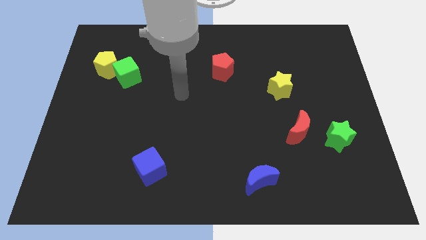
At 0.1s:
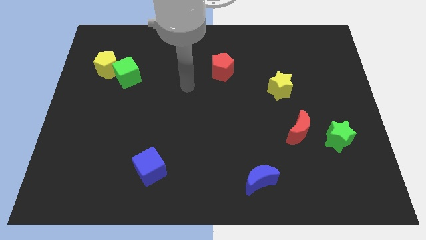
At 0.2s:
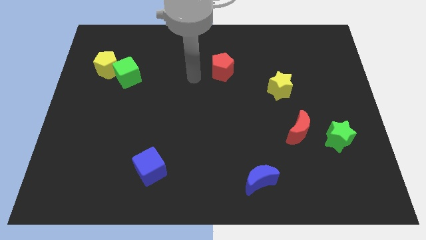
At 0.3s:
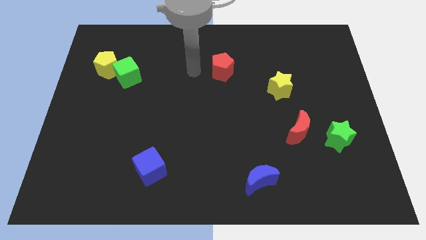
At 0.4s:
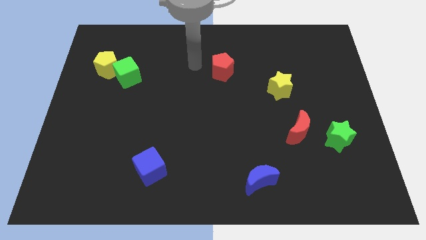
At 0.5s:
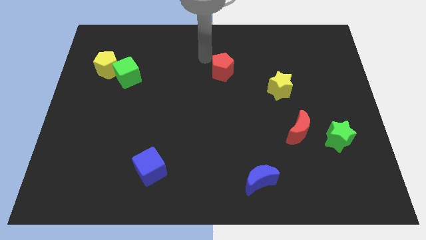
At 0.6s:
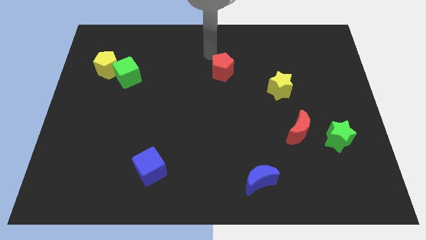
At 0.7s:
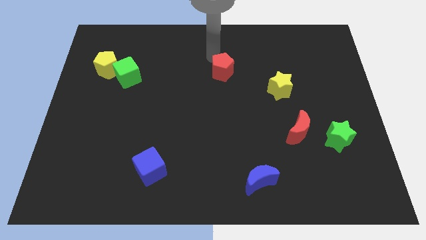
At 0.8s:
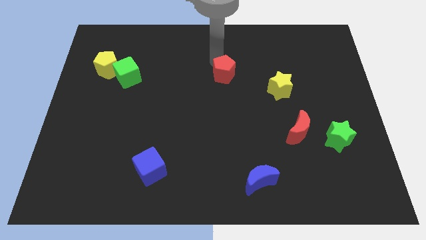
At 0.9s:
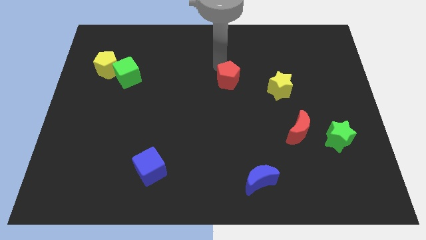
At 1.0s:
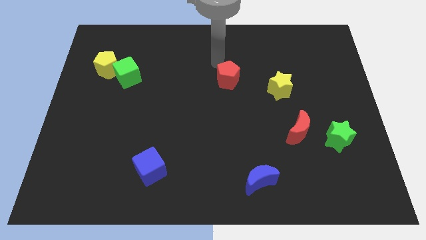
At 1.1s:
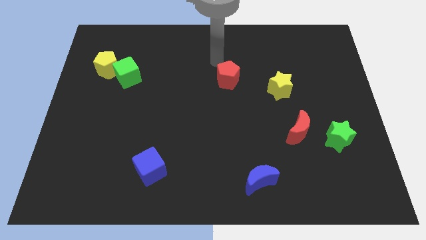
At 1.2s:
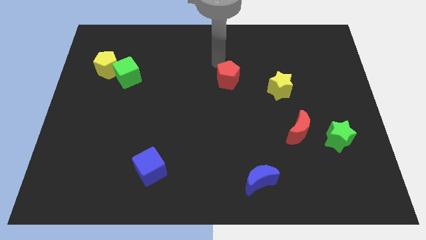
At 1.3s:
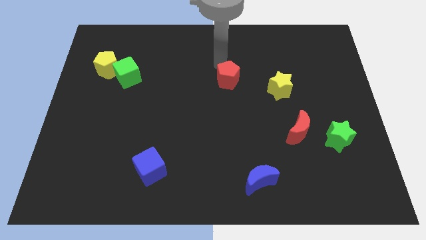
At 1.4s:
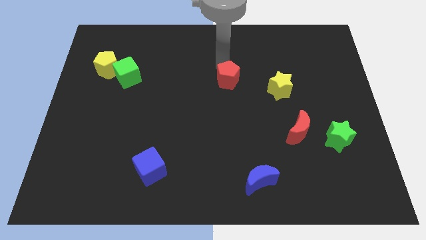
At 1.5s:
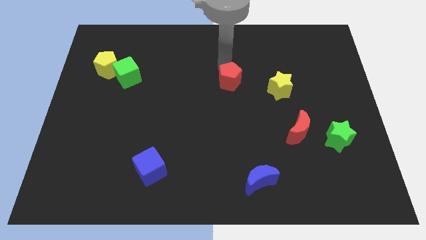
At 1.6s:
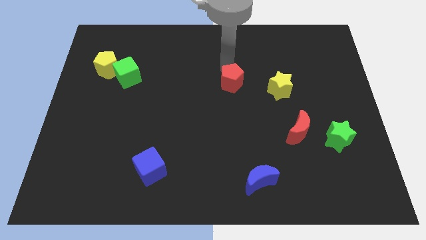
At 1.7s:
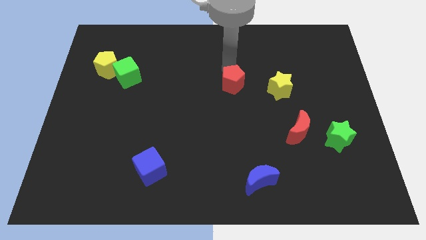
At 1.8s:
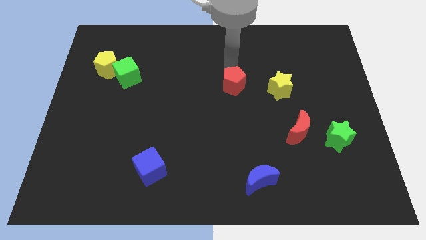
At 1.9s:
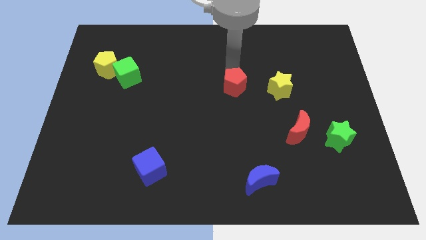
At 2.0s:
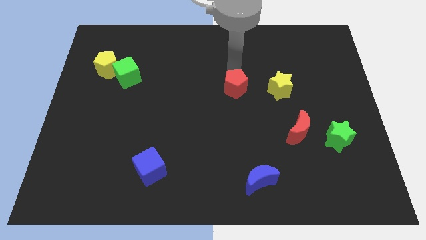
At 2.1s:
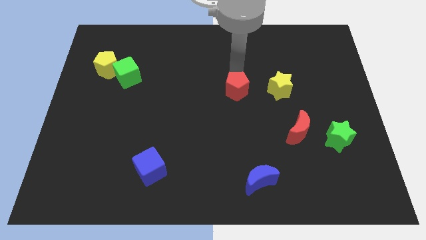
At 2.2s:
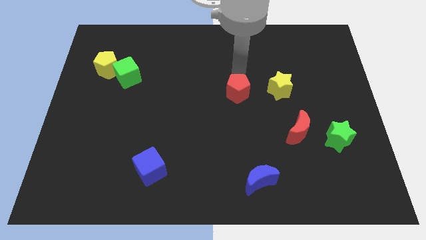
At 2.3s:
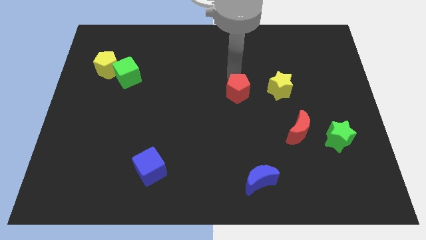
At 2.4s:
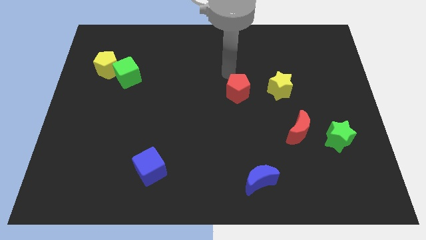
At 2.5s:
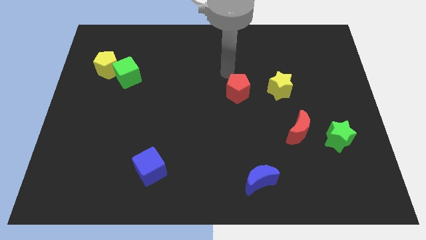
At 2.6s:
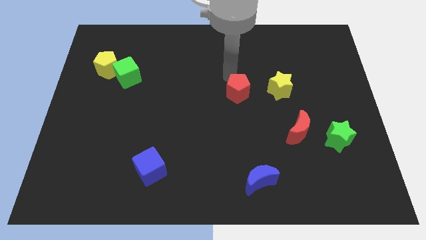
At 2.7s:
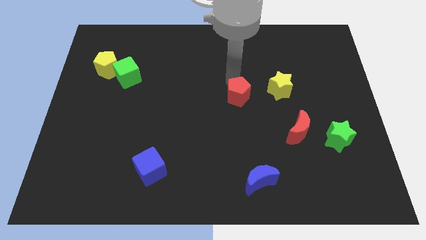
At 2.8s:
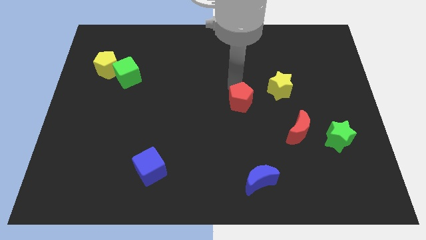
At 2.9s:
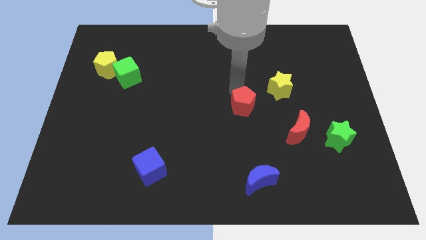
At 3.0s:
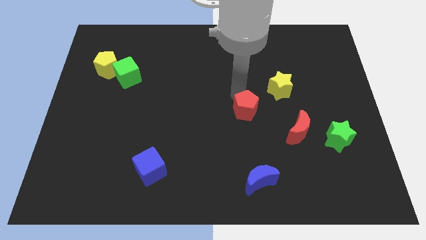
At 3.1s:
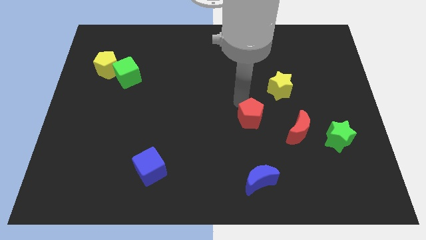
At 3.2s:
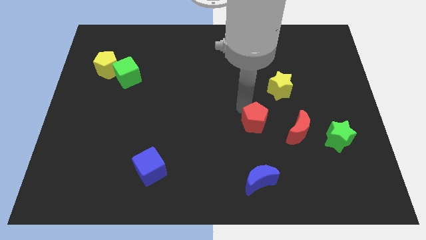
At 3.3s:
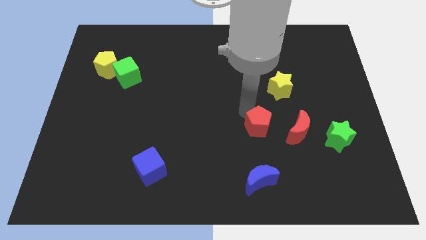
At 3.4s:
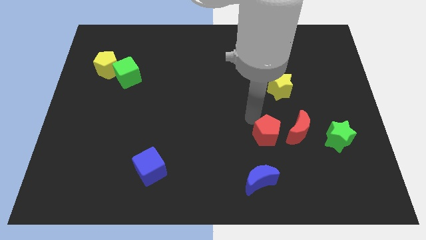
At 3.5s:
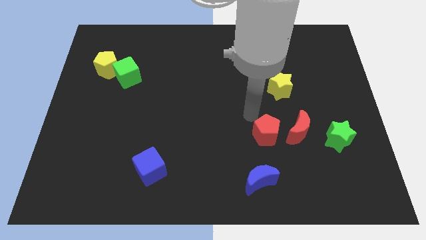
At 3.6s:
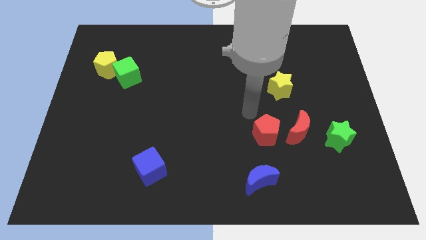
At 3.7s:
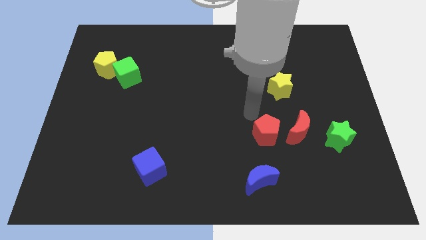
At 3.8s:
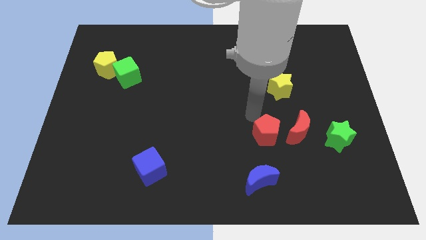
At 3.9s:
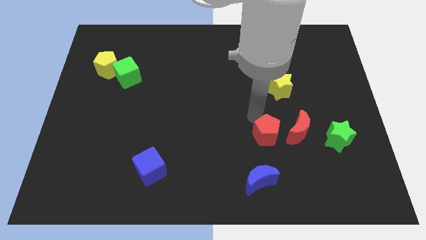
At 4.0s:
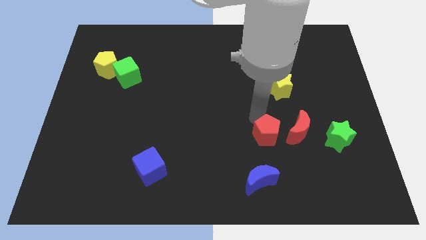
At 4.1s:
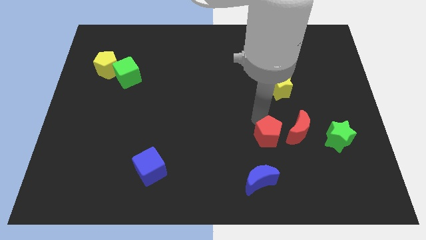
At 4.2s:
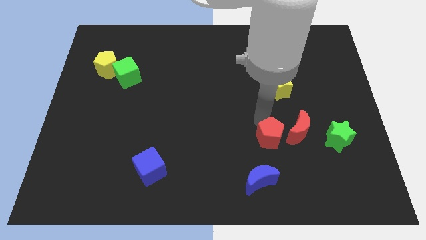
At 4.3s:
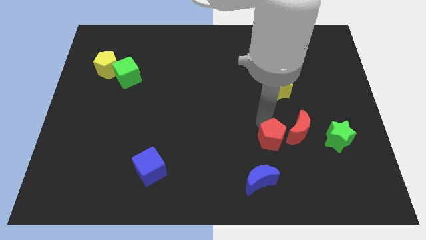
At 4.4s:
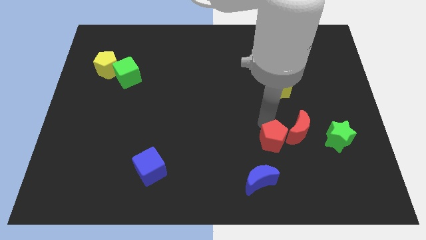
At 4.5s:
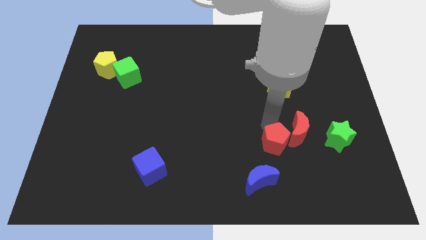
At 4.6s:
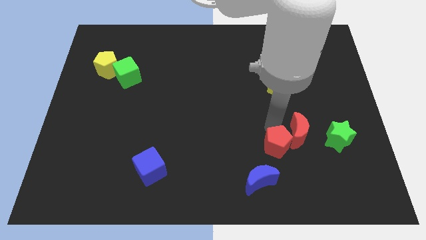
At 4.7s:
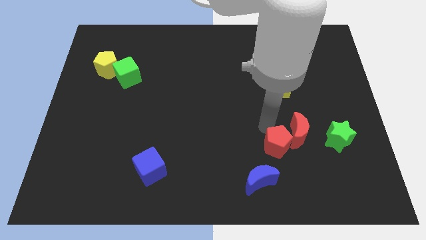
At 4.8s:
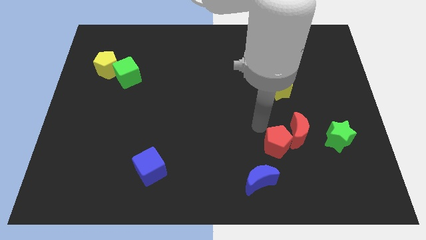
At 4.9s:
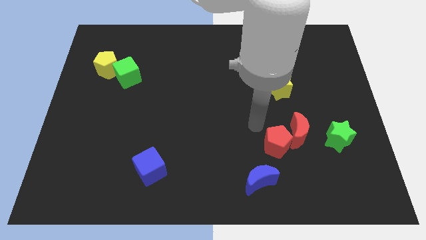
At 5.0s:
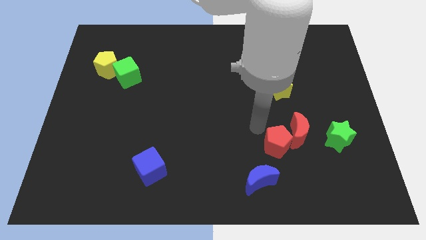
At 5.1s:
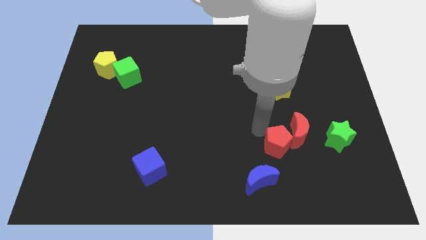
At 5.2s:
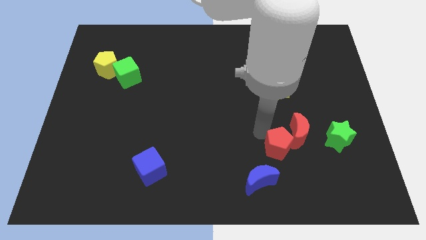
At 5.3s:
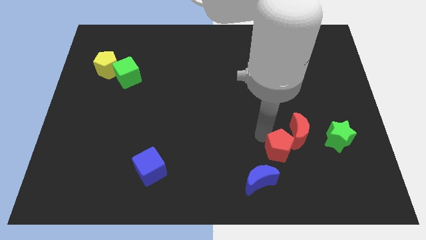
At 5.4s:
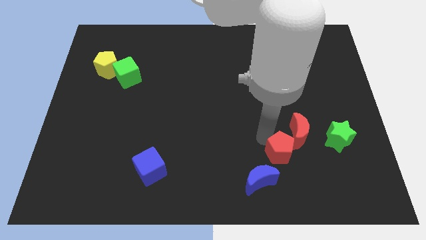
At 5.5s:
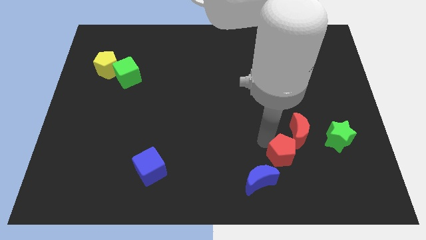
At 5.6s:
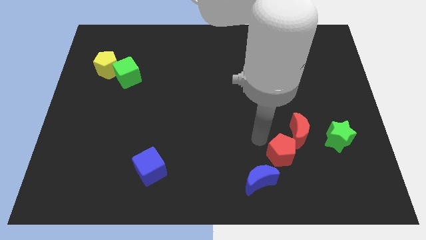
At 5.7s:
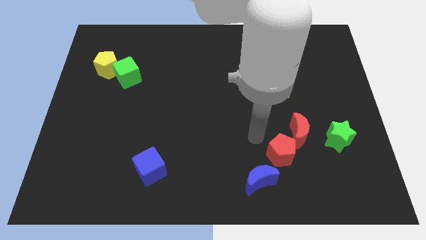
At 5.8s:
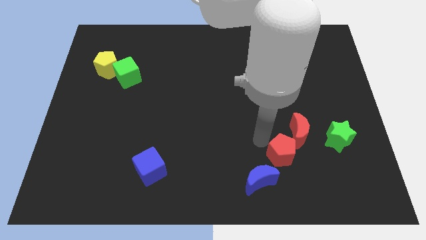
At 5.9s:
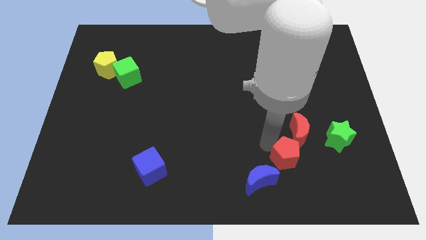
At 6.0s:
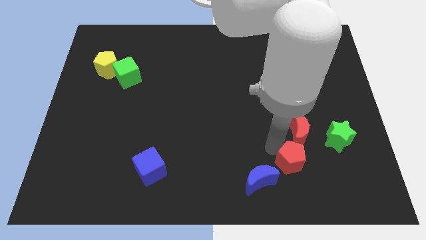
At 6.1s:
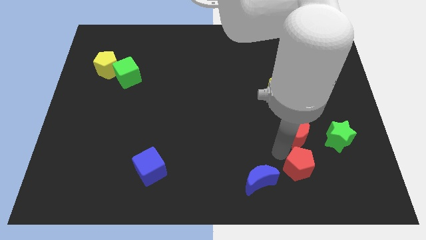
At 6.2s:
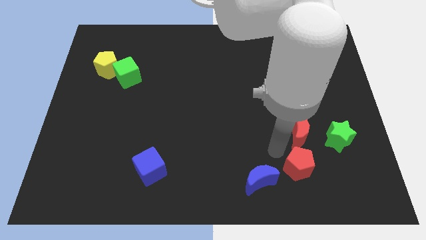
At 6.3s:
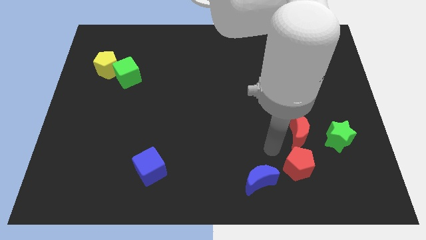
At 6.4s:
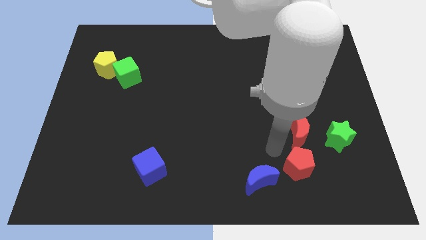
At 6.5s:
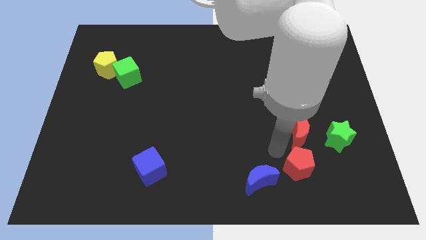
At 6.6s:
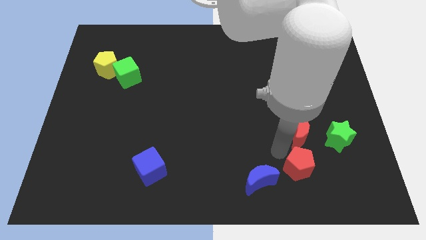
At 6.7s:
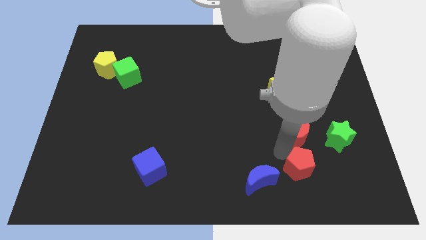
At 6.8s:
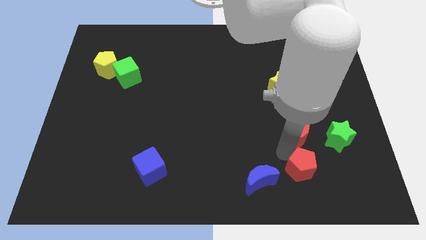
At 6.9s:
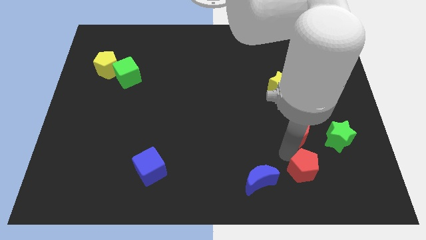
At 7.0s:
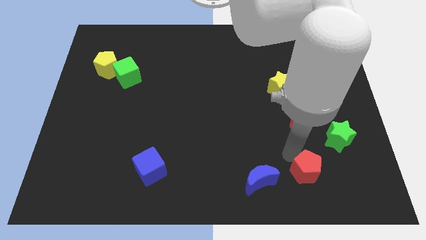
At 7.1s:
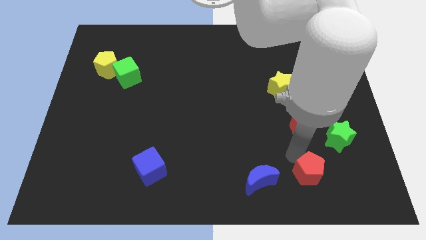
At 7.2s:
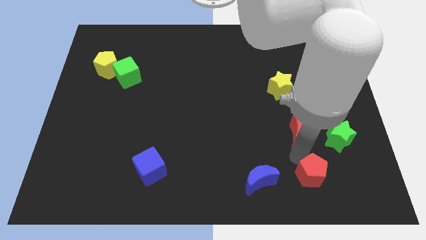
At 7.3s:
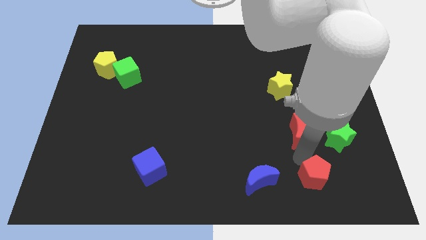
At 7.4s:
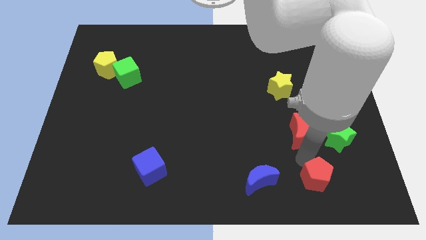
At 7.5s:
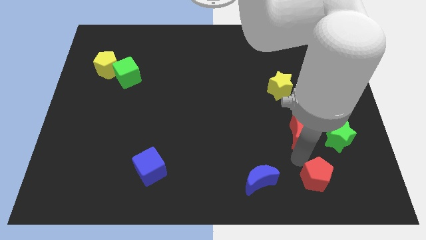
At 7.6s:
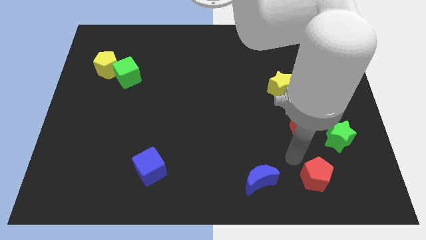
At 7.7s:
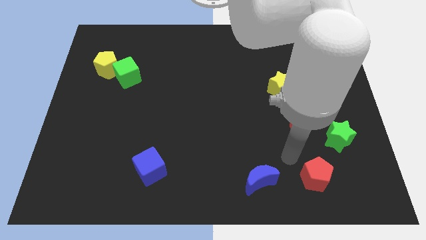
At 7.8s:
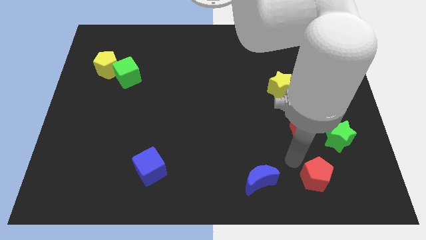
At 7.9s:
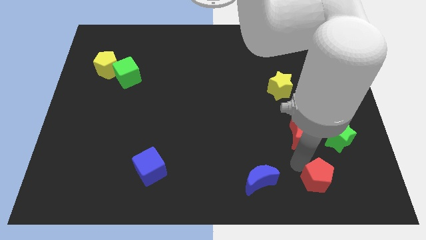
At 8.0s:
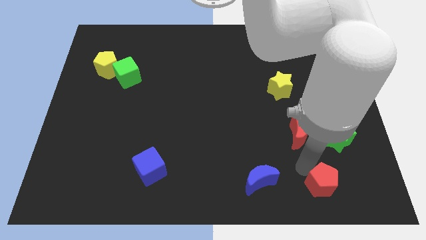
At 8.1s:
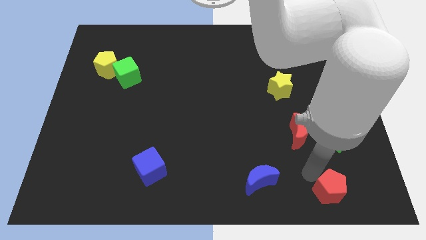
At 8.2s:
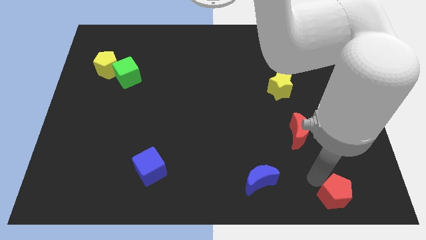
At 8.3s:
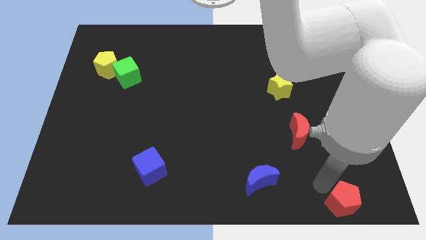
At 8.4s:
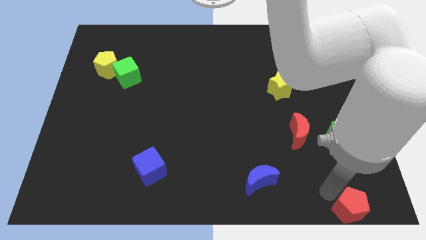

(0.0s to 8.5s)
slide the red pentagon to the bottom right corner
